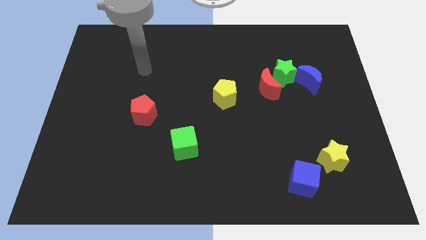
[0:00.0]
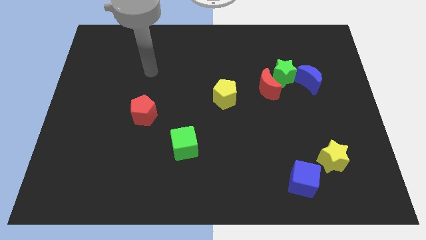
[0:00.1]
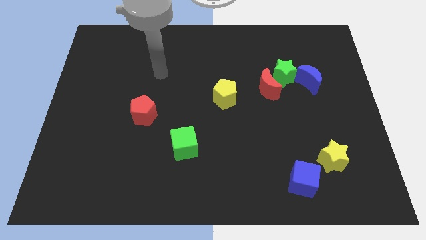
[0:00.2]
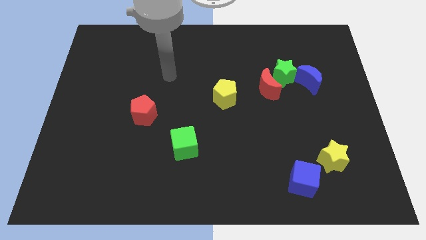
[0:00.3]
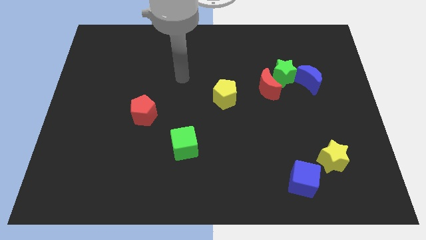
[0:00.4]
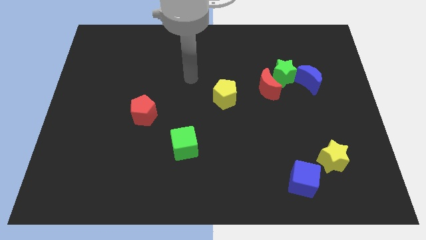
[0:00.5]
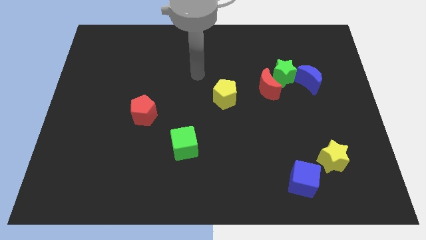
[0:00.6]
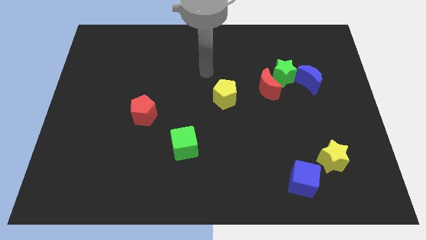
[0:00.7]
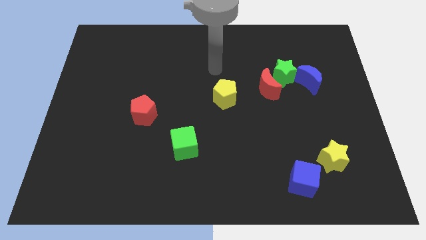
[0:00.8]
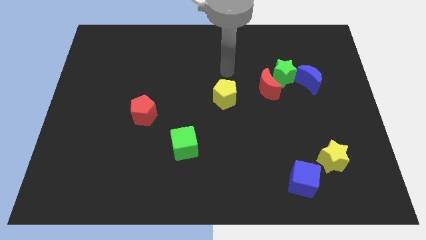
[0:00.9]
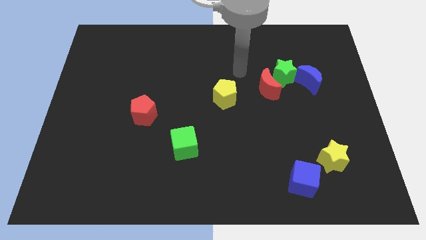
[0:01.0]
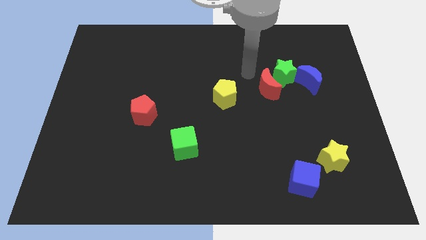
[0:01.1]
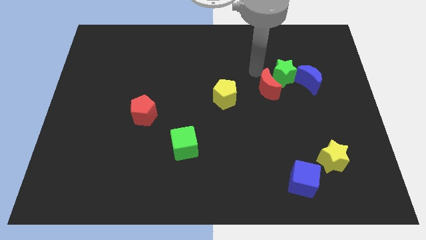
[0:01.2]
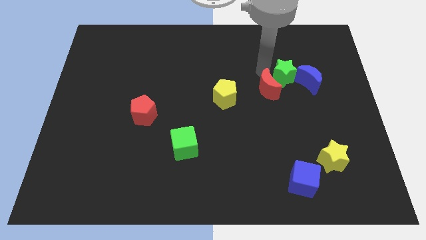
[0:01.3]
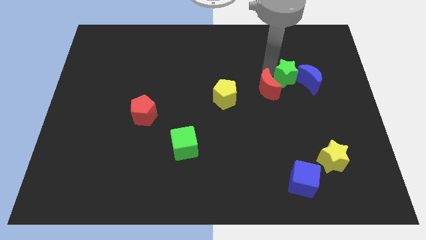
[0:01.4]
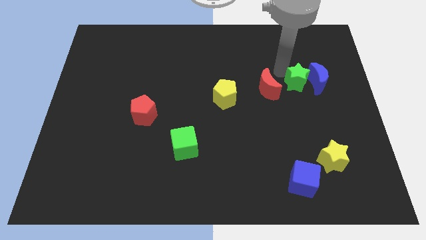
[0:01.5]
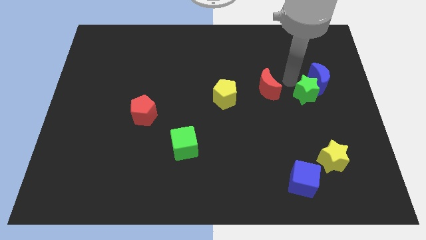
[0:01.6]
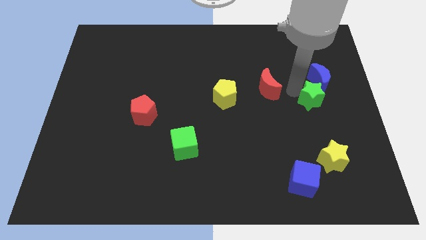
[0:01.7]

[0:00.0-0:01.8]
move the red moon away from the green star

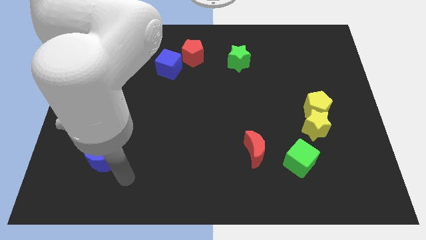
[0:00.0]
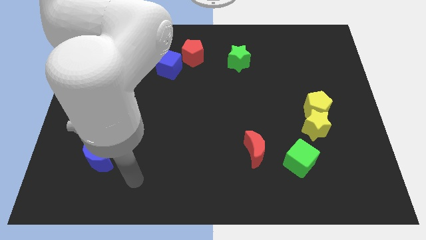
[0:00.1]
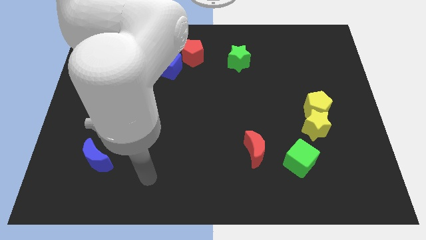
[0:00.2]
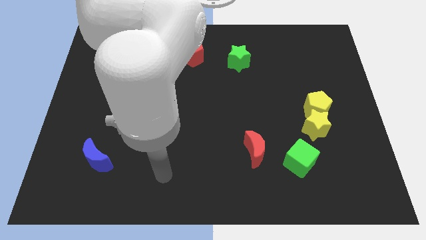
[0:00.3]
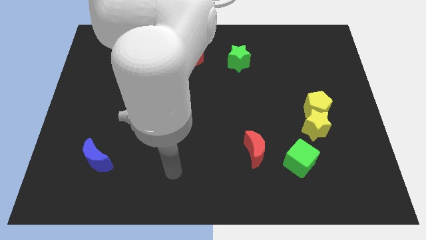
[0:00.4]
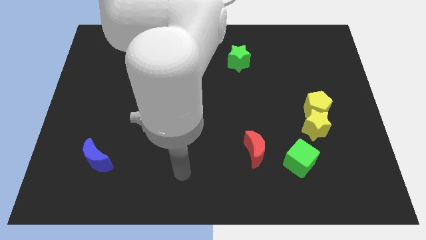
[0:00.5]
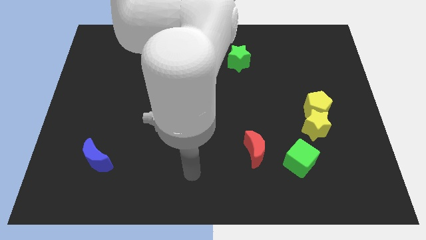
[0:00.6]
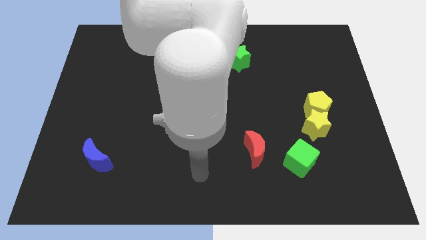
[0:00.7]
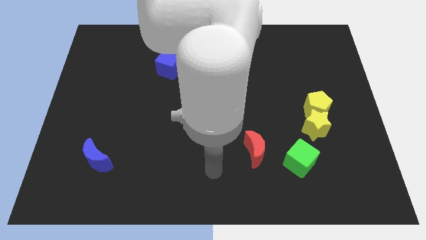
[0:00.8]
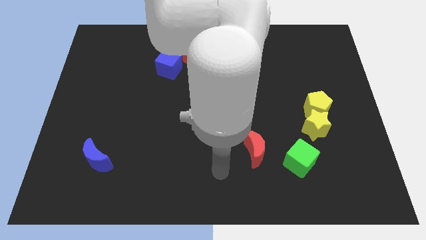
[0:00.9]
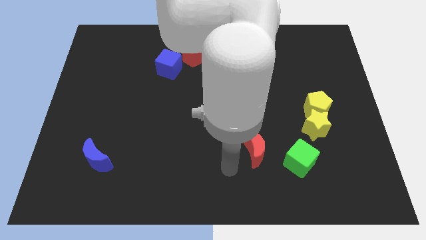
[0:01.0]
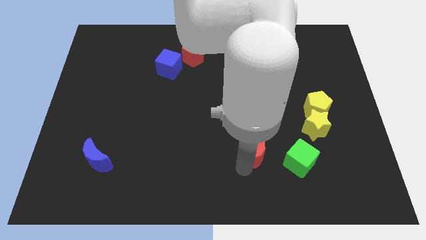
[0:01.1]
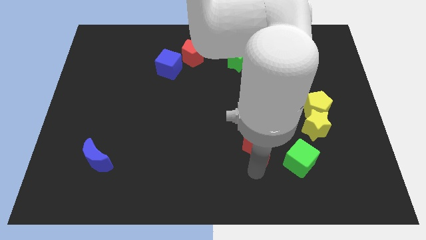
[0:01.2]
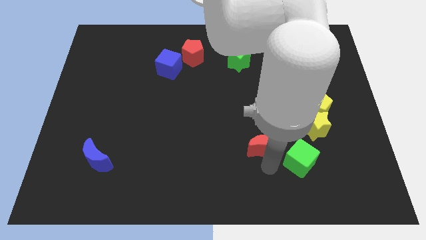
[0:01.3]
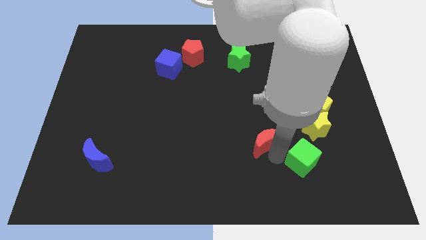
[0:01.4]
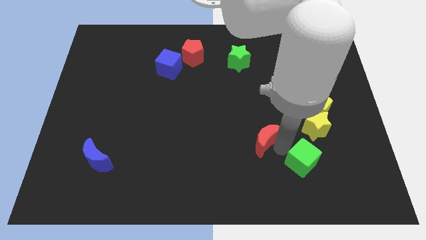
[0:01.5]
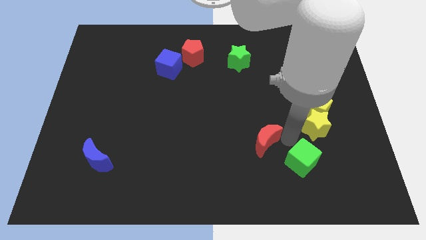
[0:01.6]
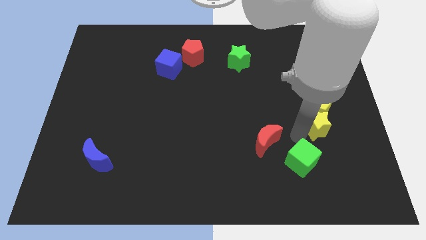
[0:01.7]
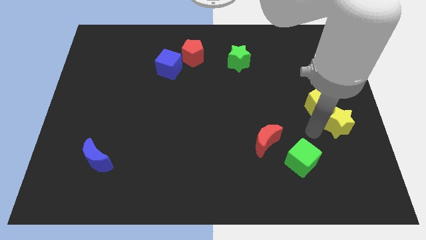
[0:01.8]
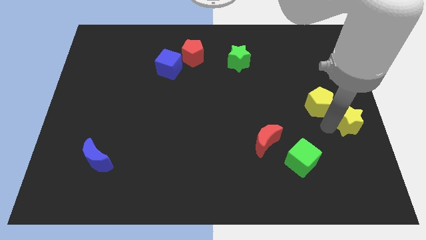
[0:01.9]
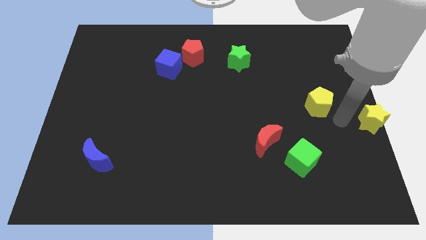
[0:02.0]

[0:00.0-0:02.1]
pull the yellow pentagon apart from the yellow star

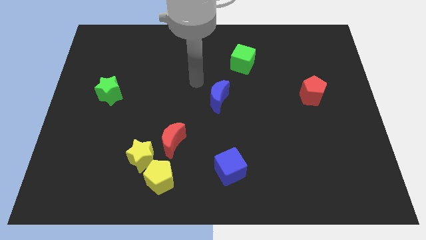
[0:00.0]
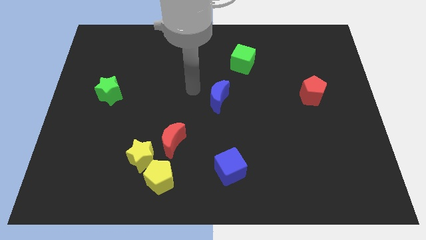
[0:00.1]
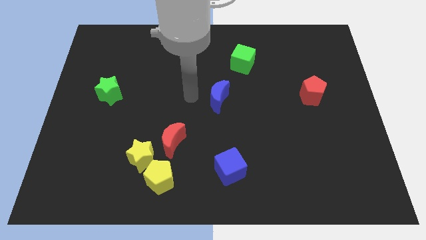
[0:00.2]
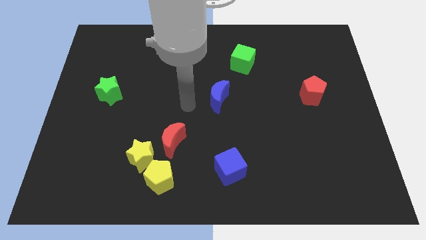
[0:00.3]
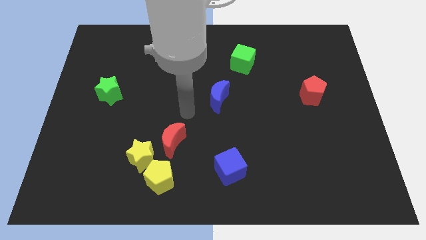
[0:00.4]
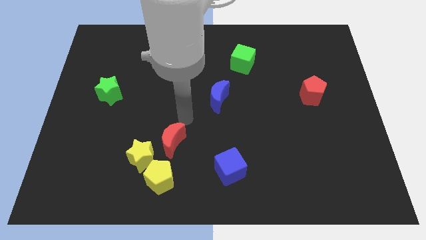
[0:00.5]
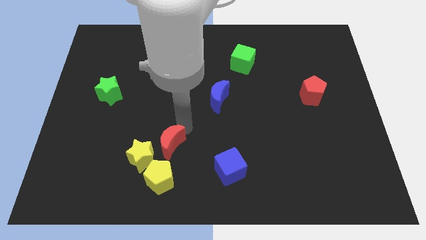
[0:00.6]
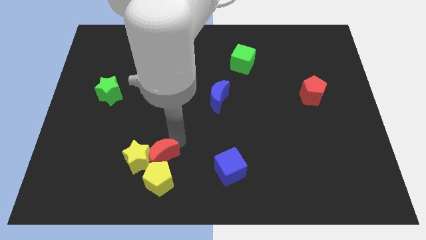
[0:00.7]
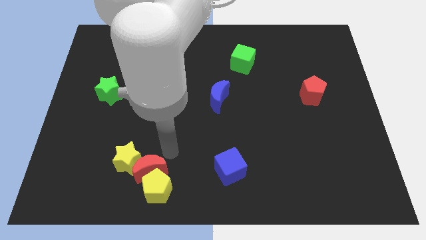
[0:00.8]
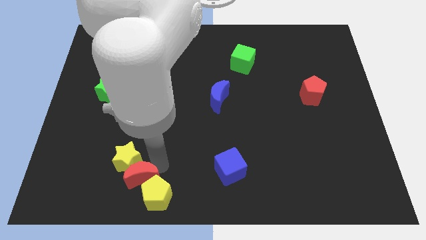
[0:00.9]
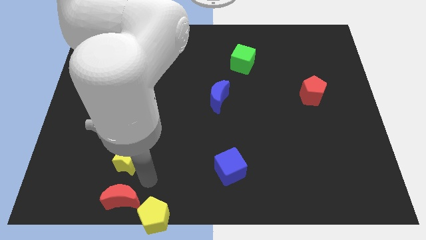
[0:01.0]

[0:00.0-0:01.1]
pull the yellow star apart from the yellow pentagon and red moon

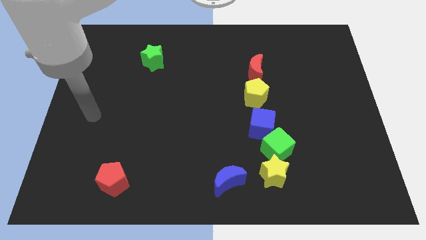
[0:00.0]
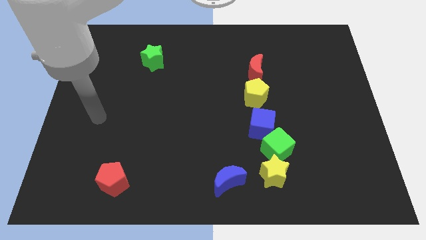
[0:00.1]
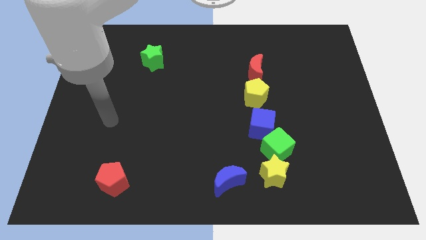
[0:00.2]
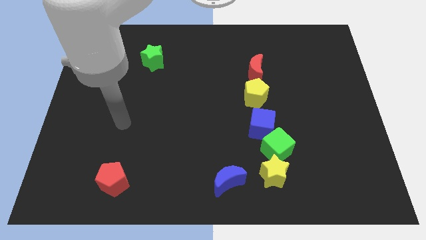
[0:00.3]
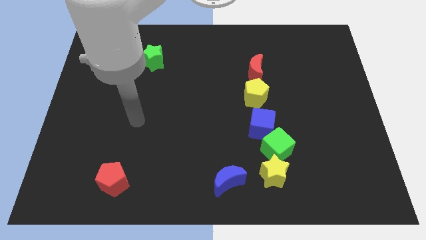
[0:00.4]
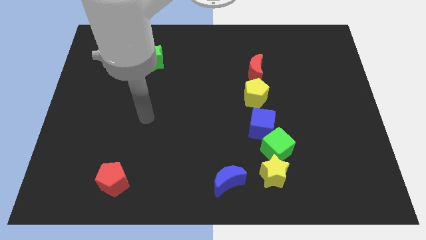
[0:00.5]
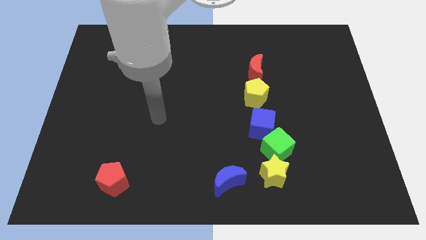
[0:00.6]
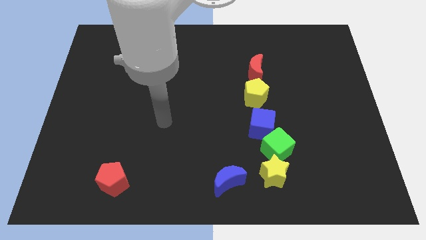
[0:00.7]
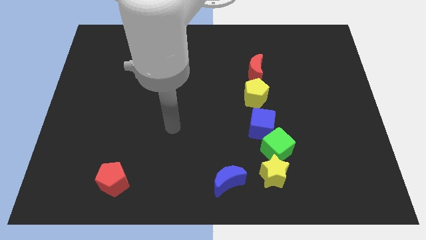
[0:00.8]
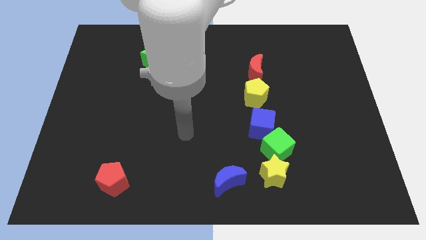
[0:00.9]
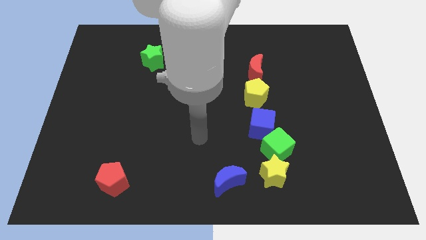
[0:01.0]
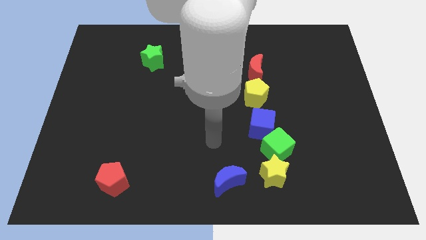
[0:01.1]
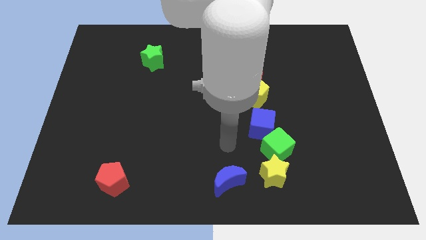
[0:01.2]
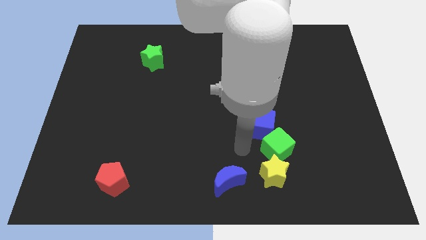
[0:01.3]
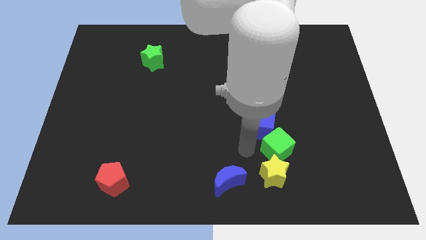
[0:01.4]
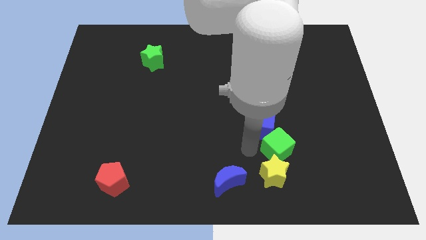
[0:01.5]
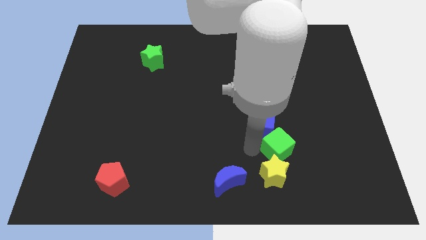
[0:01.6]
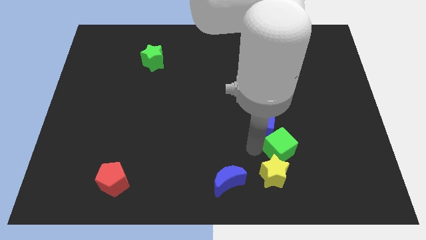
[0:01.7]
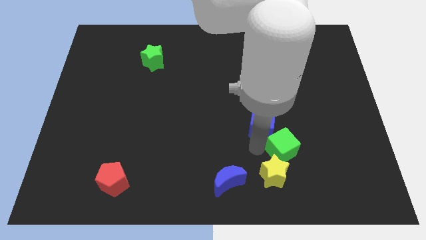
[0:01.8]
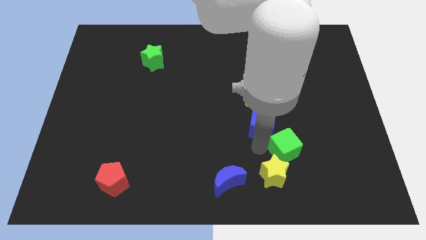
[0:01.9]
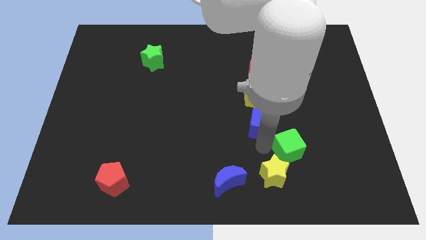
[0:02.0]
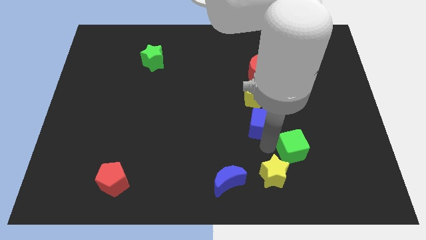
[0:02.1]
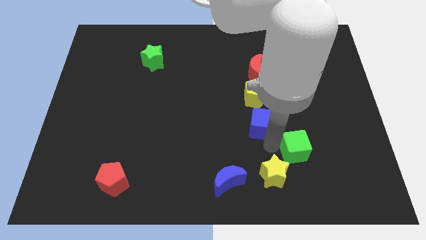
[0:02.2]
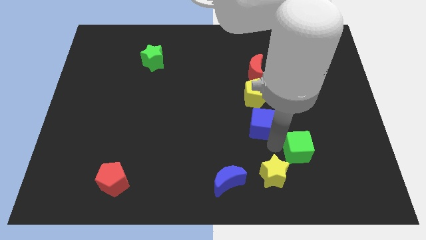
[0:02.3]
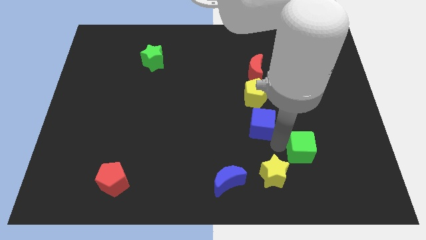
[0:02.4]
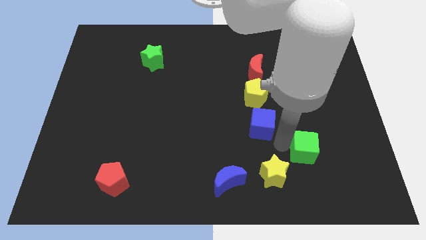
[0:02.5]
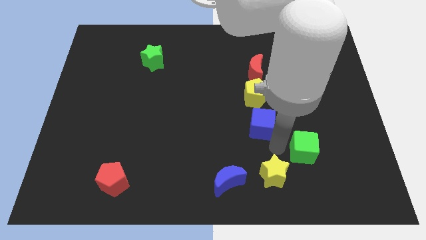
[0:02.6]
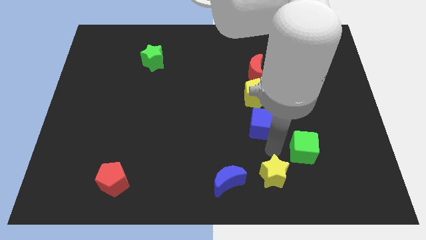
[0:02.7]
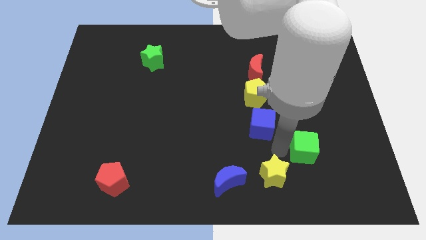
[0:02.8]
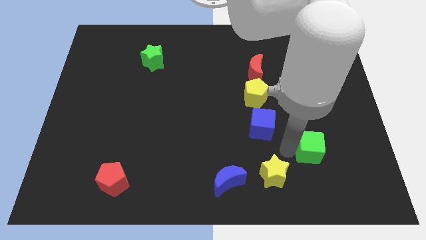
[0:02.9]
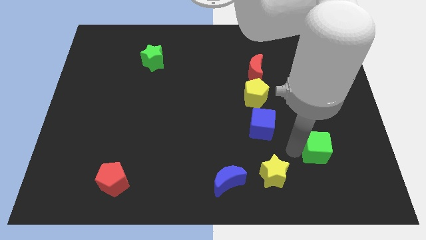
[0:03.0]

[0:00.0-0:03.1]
move the green cube away from the yellow star and blue cube

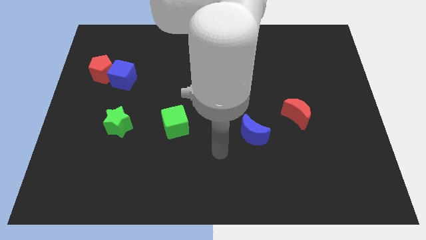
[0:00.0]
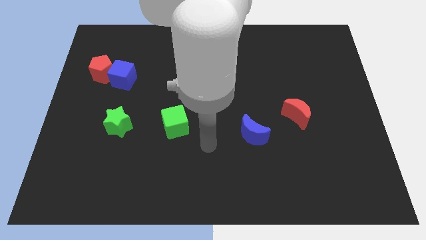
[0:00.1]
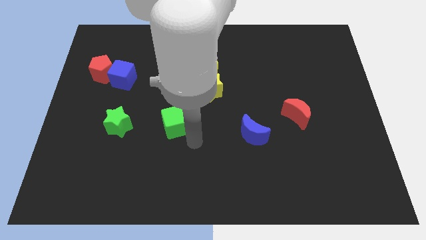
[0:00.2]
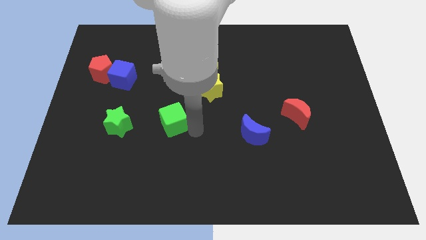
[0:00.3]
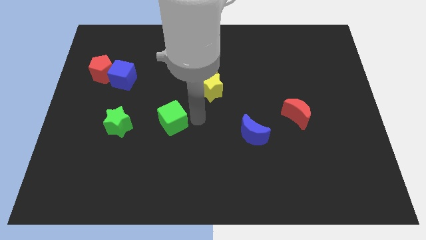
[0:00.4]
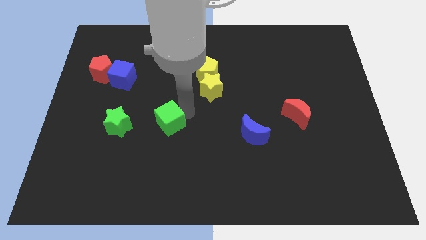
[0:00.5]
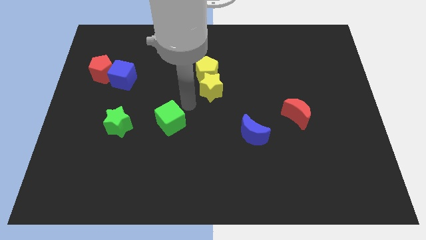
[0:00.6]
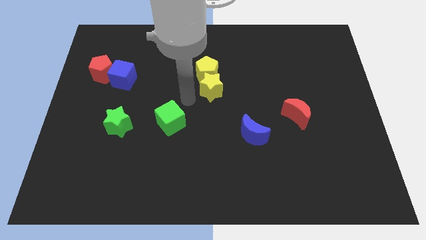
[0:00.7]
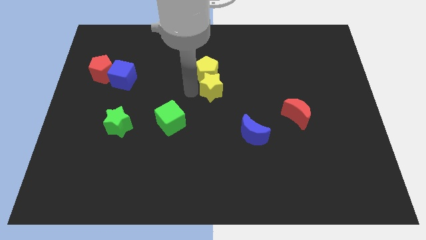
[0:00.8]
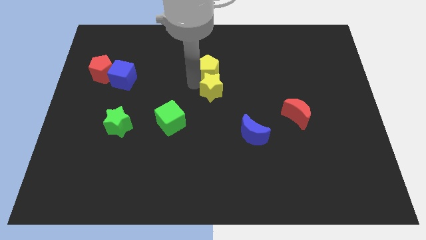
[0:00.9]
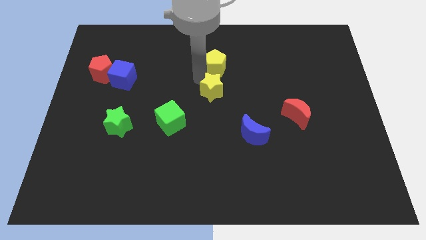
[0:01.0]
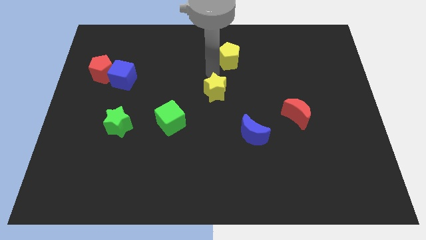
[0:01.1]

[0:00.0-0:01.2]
move the yellow star away from the yellow pentagon

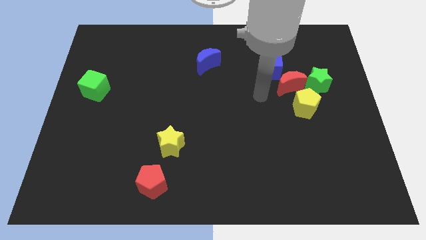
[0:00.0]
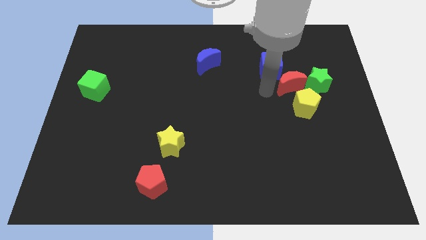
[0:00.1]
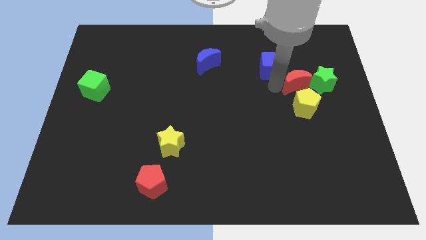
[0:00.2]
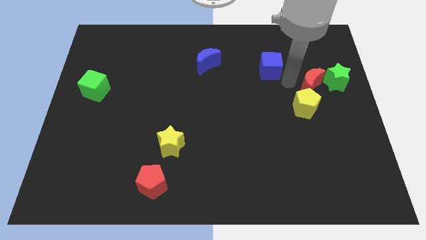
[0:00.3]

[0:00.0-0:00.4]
move the blue cube away from the red moon
